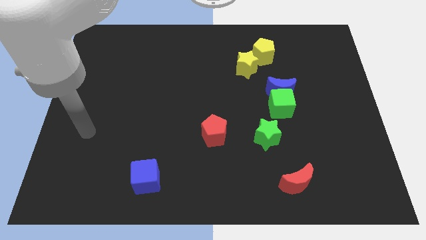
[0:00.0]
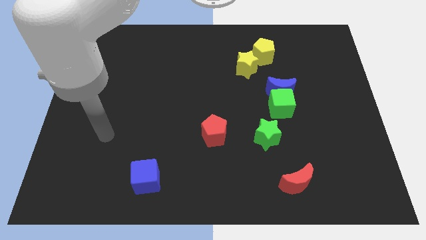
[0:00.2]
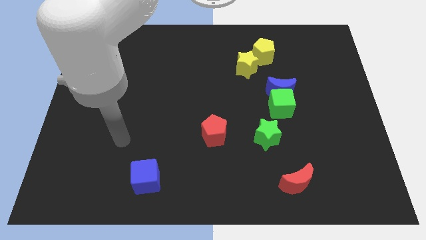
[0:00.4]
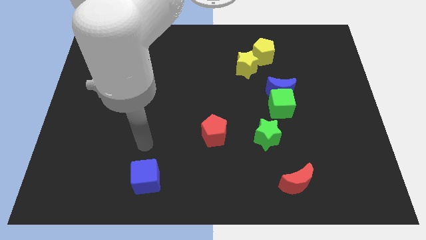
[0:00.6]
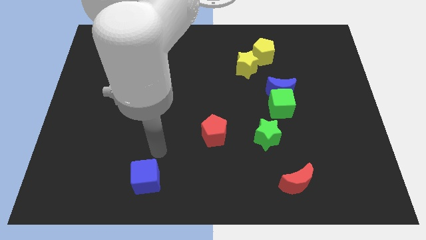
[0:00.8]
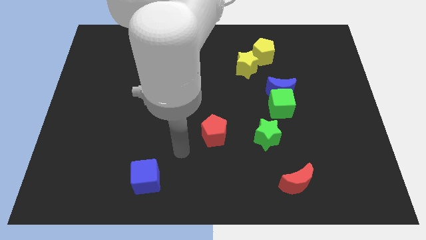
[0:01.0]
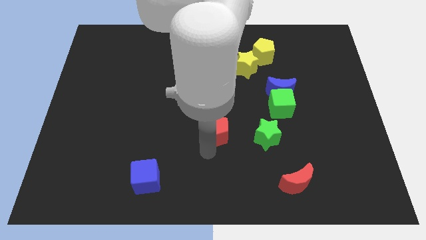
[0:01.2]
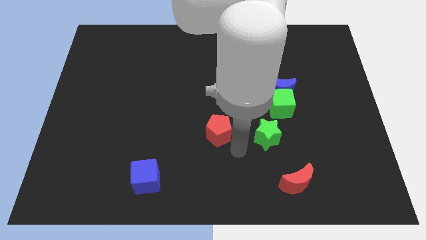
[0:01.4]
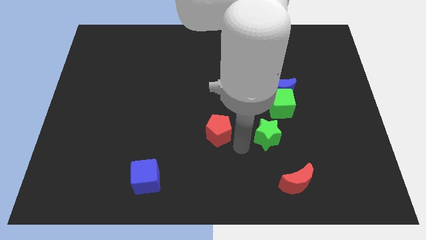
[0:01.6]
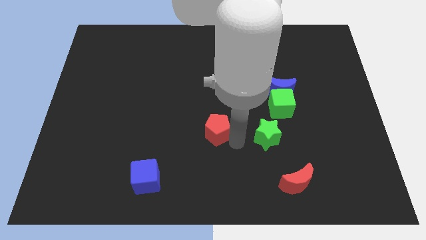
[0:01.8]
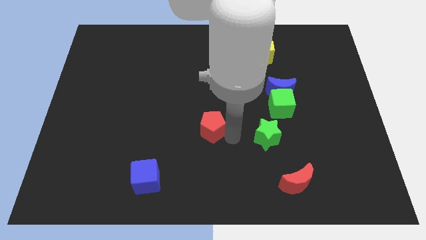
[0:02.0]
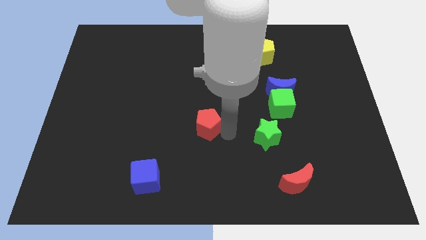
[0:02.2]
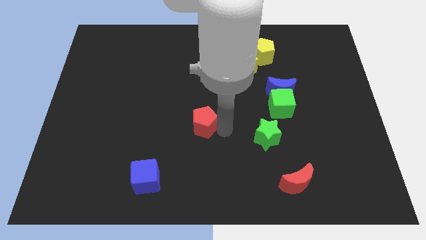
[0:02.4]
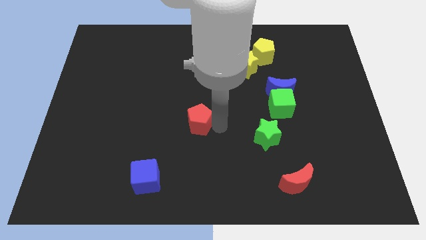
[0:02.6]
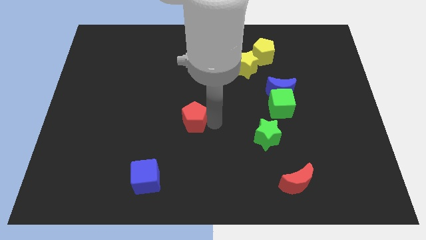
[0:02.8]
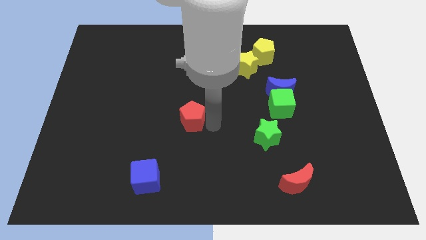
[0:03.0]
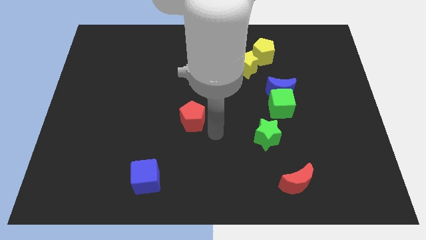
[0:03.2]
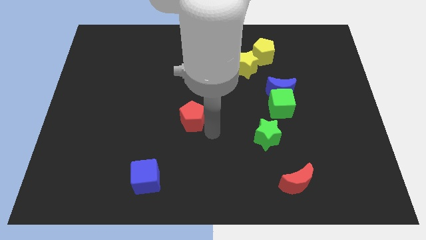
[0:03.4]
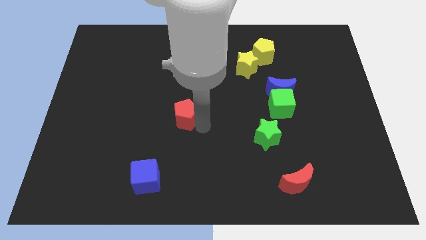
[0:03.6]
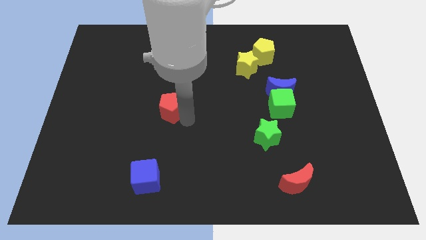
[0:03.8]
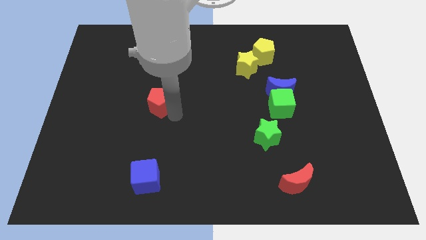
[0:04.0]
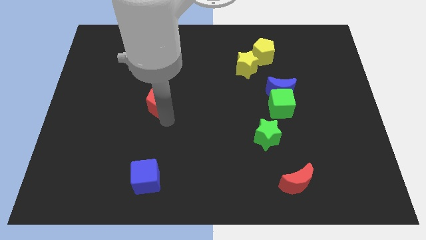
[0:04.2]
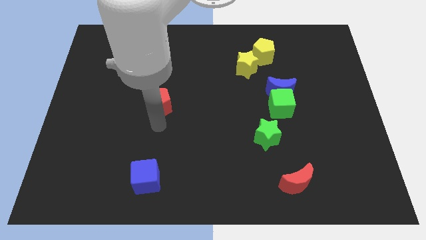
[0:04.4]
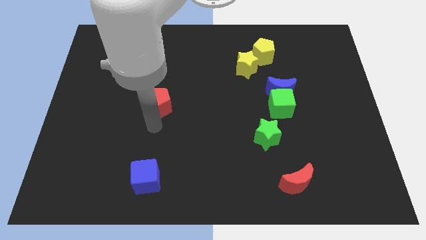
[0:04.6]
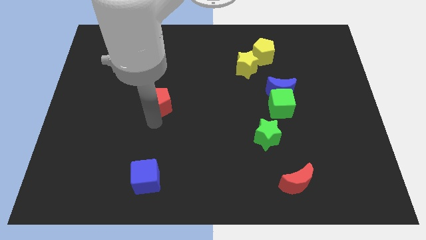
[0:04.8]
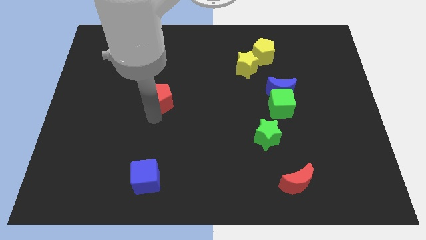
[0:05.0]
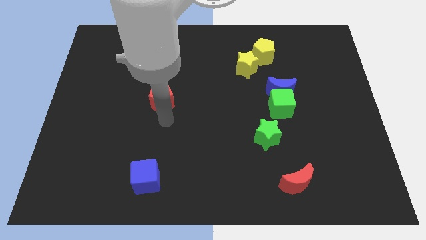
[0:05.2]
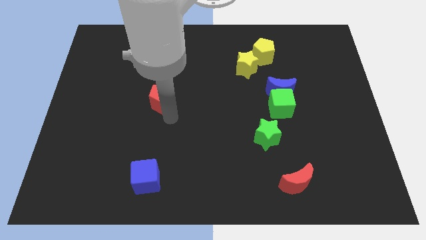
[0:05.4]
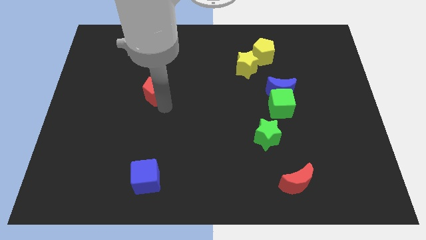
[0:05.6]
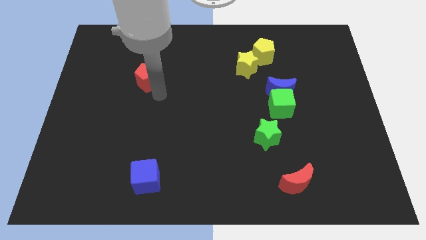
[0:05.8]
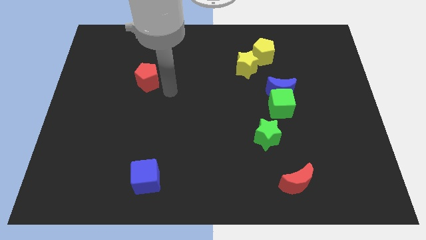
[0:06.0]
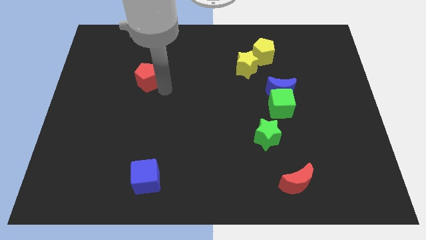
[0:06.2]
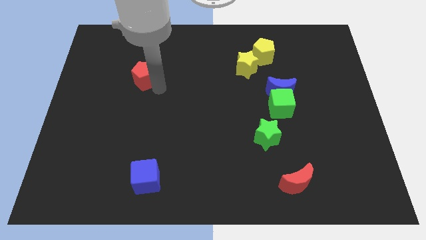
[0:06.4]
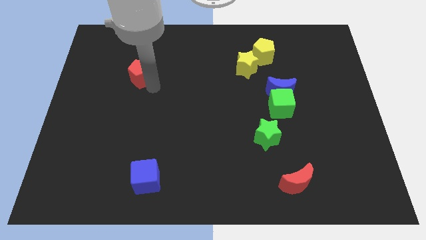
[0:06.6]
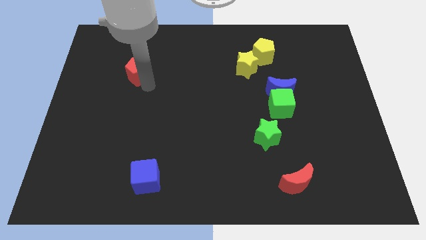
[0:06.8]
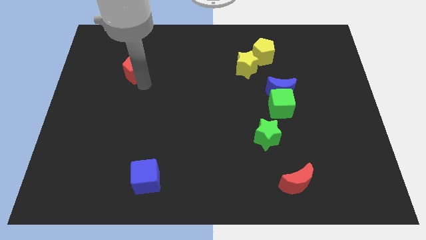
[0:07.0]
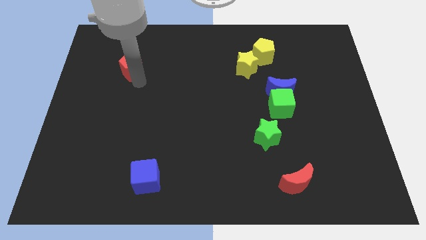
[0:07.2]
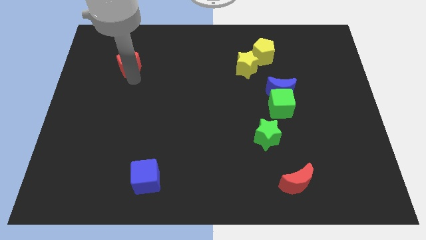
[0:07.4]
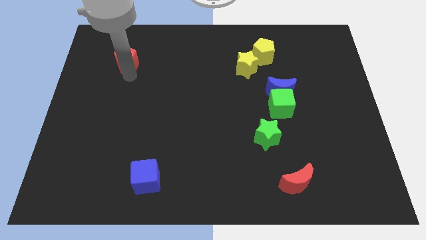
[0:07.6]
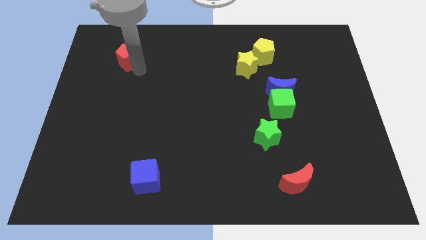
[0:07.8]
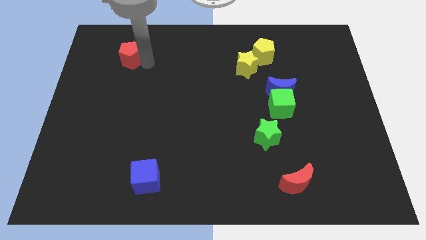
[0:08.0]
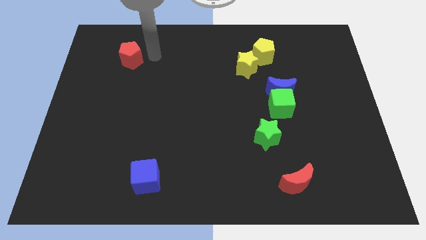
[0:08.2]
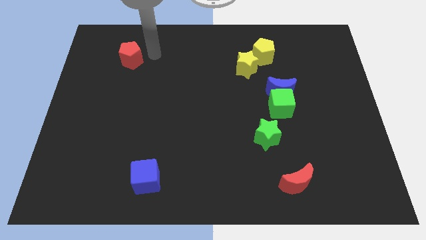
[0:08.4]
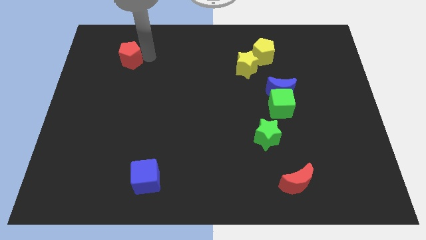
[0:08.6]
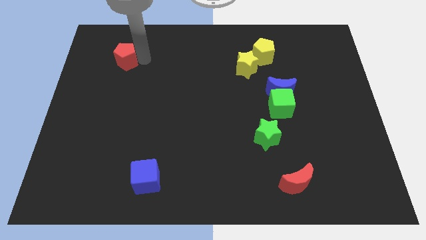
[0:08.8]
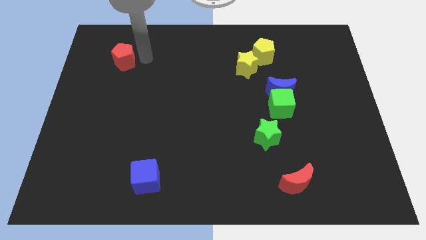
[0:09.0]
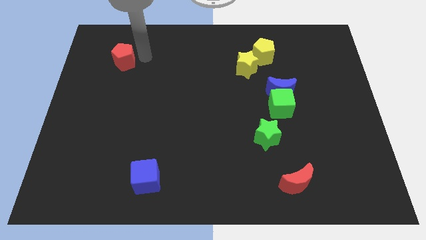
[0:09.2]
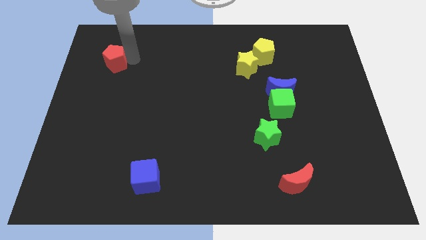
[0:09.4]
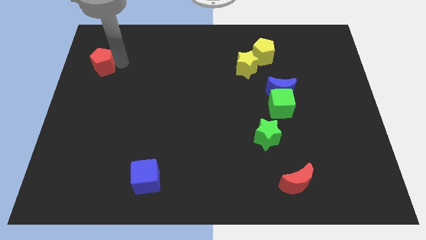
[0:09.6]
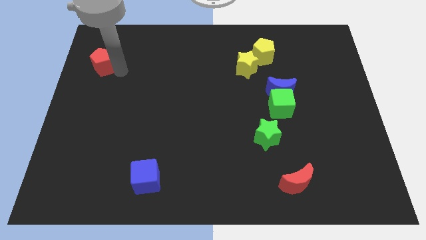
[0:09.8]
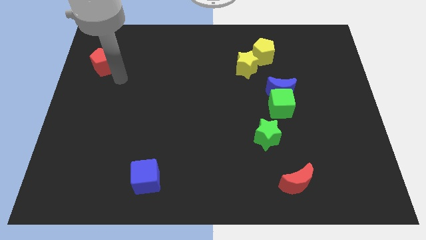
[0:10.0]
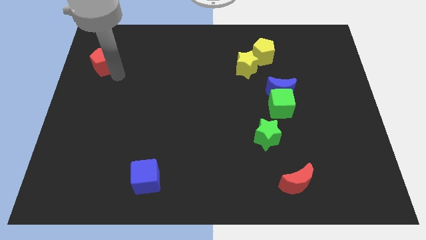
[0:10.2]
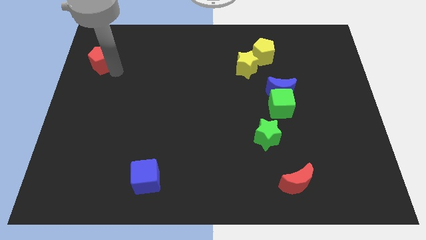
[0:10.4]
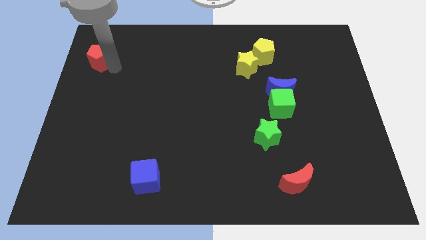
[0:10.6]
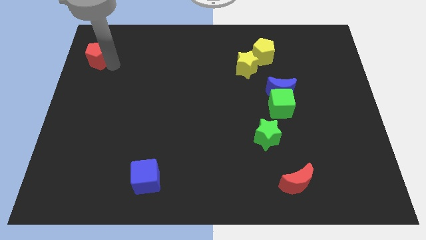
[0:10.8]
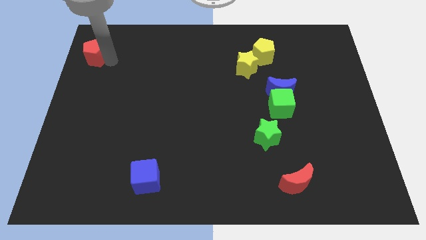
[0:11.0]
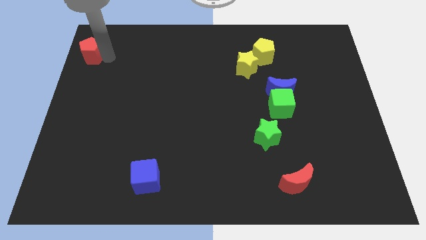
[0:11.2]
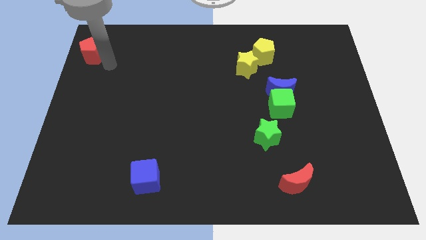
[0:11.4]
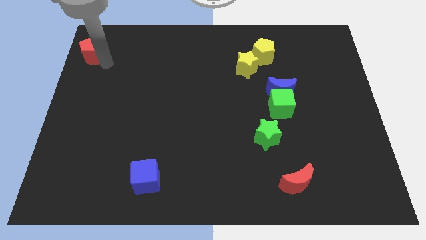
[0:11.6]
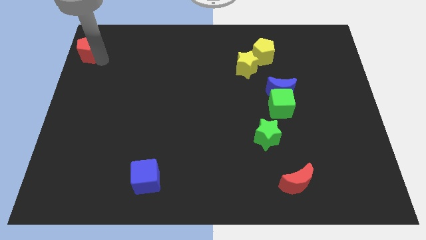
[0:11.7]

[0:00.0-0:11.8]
move the red pentagon to the top left of the board
